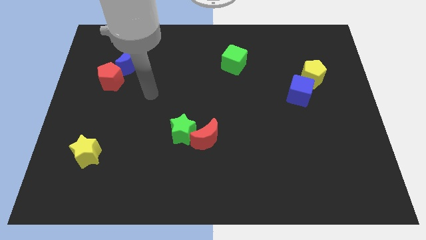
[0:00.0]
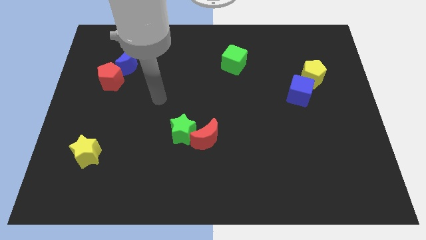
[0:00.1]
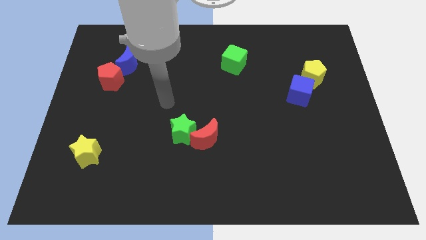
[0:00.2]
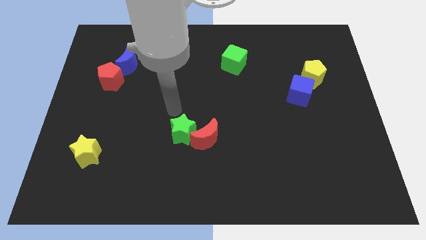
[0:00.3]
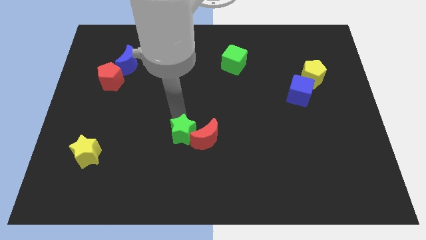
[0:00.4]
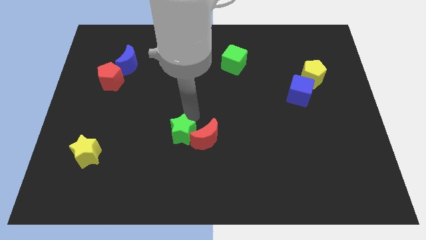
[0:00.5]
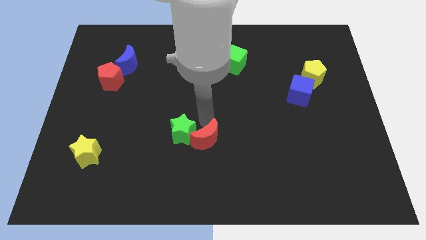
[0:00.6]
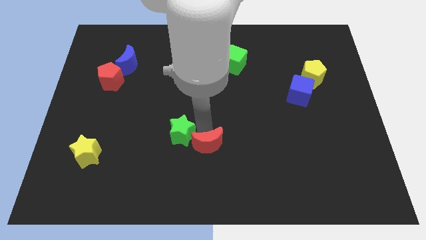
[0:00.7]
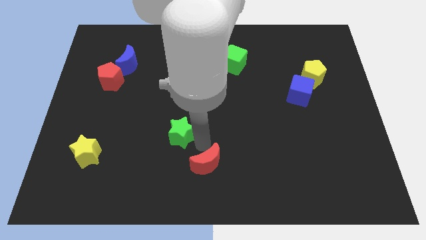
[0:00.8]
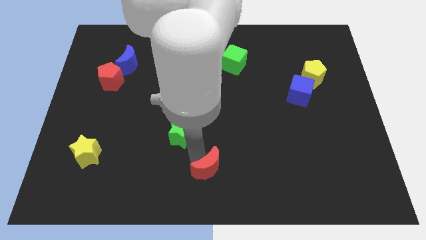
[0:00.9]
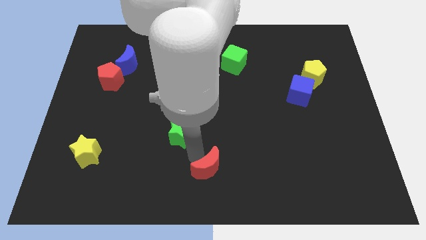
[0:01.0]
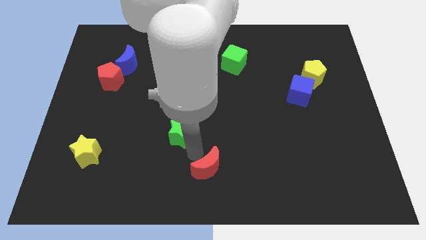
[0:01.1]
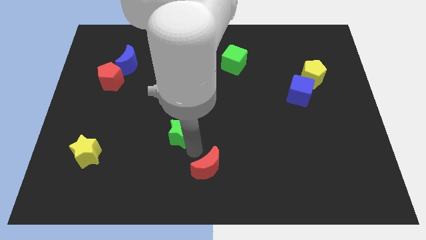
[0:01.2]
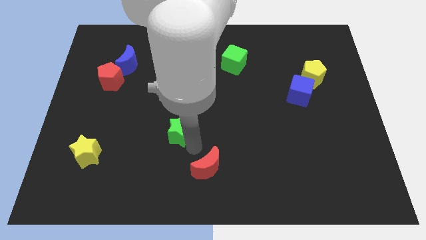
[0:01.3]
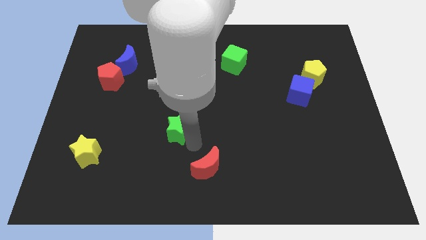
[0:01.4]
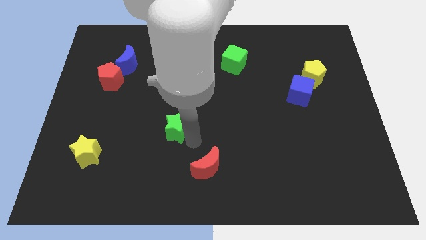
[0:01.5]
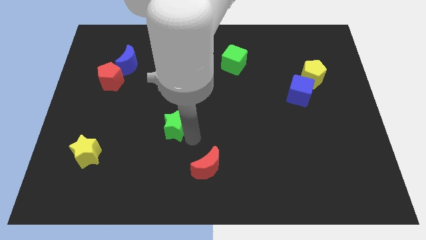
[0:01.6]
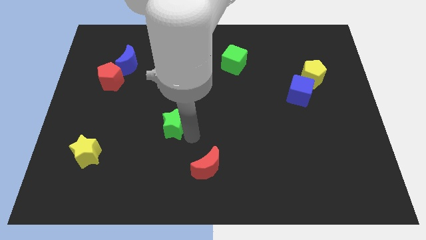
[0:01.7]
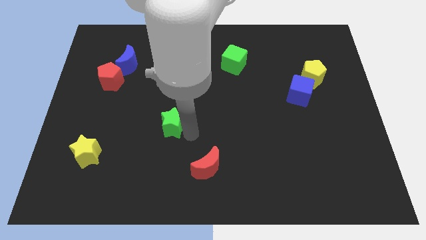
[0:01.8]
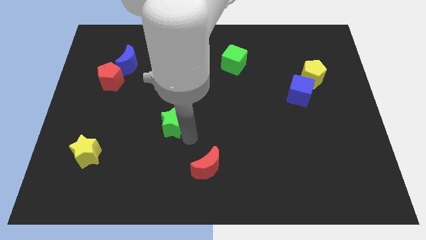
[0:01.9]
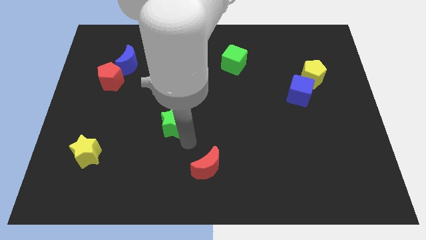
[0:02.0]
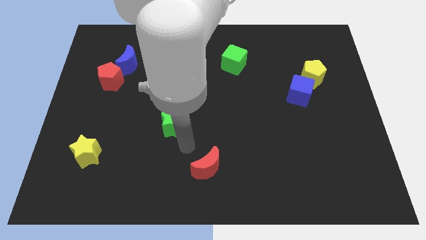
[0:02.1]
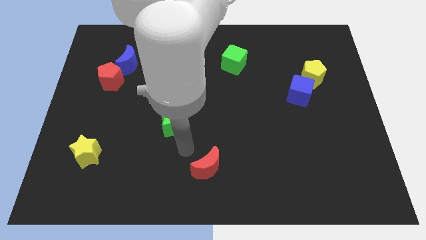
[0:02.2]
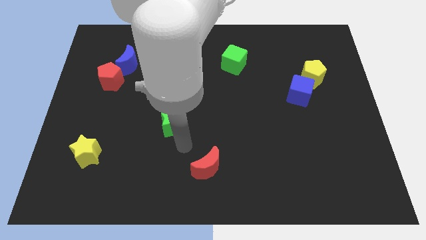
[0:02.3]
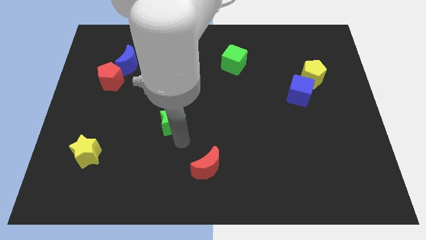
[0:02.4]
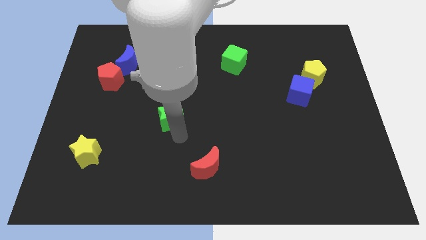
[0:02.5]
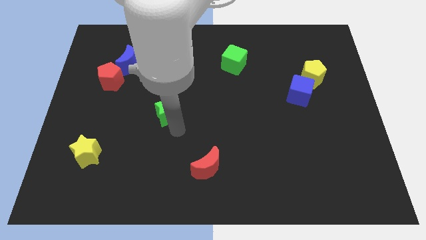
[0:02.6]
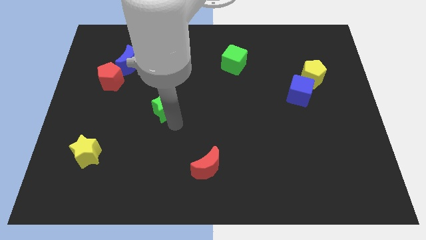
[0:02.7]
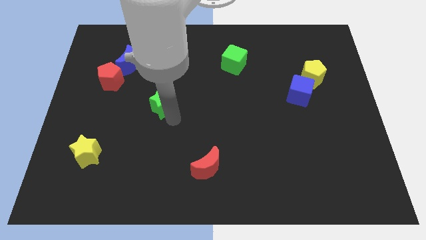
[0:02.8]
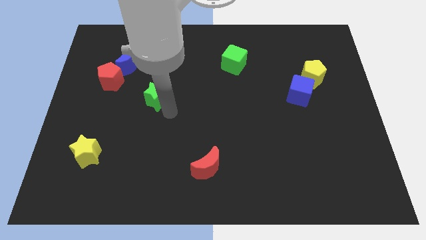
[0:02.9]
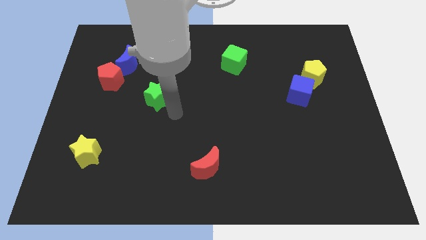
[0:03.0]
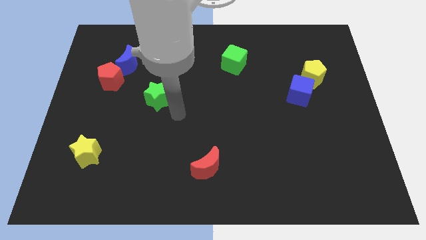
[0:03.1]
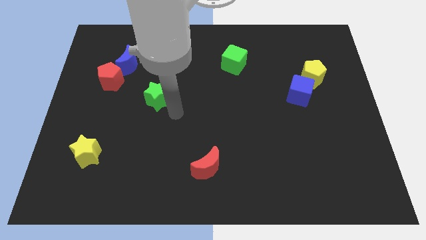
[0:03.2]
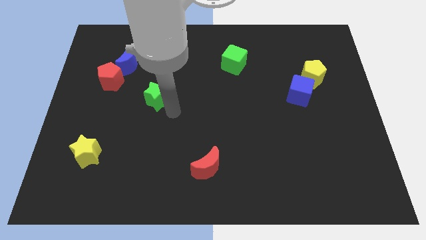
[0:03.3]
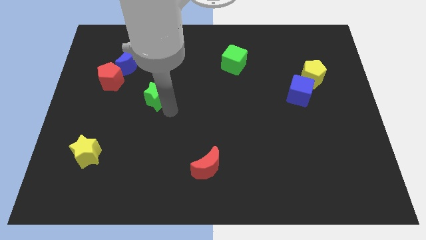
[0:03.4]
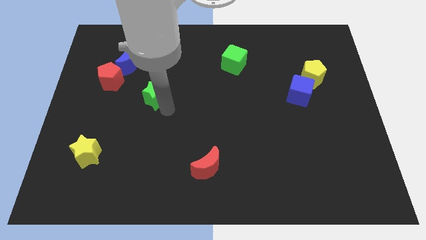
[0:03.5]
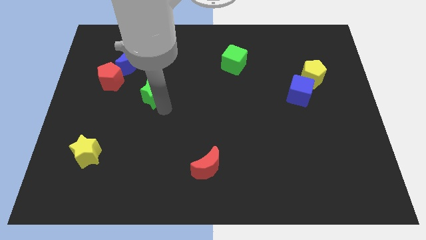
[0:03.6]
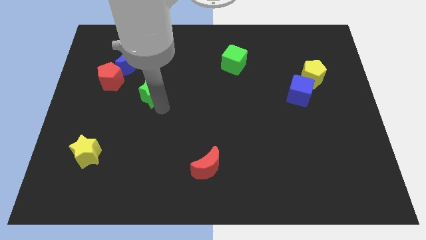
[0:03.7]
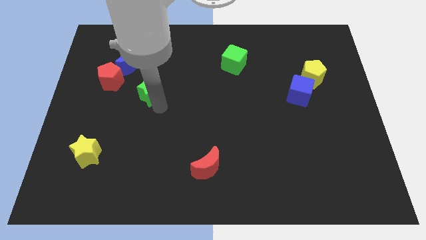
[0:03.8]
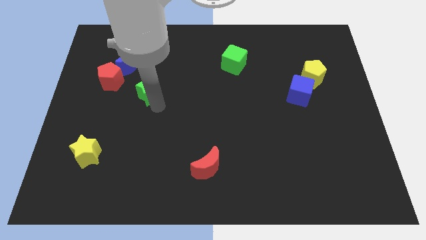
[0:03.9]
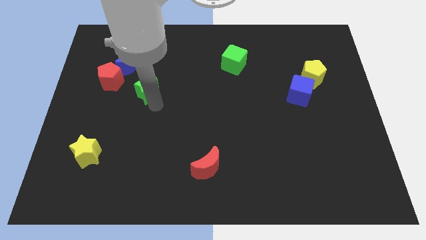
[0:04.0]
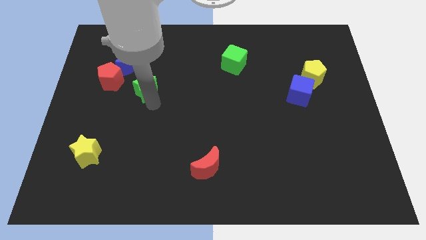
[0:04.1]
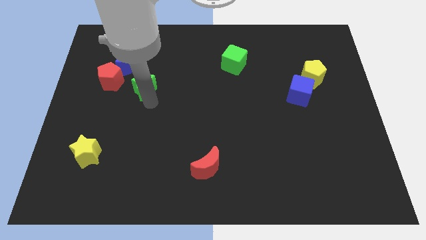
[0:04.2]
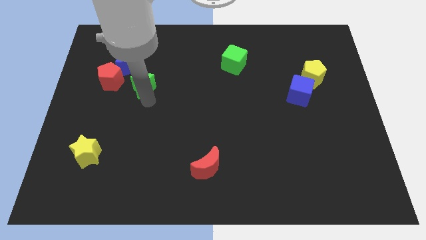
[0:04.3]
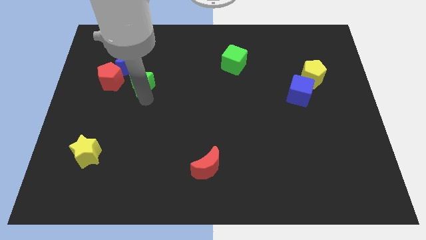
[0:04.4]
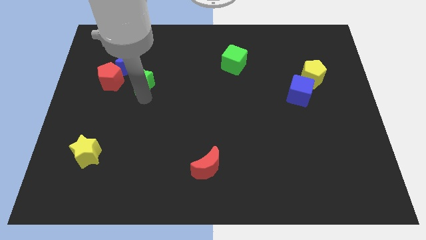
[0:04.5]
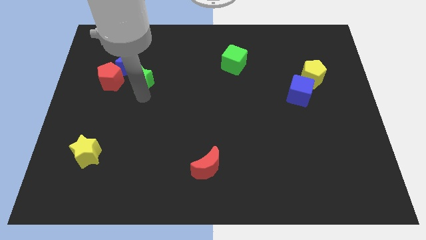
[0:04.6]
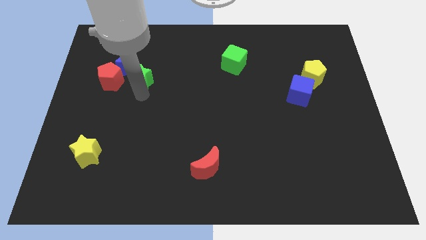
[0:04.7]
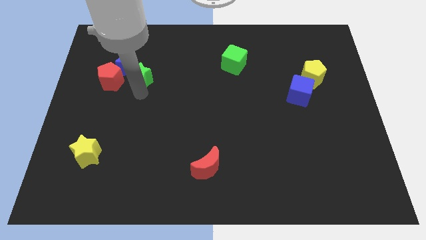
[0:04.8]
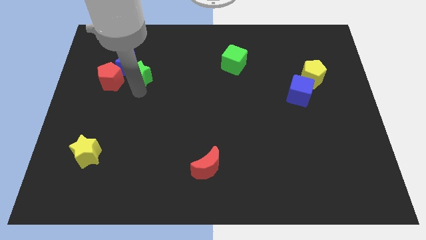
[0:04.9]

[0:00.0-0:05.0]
put the green star close to the blue moon

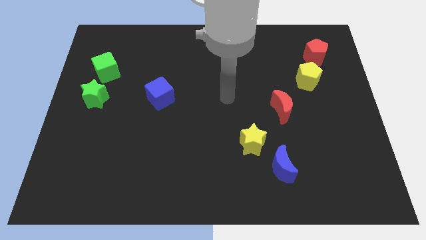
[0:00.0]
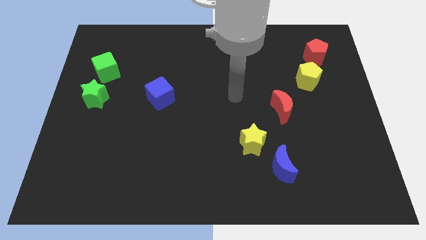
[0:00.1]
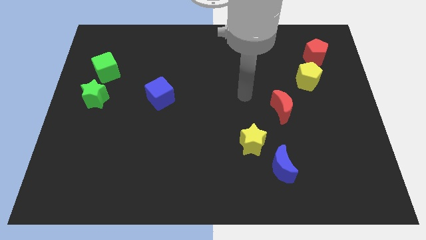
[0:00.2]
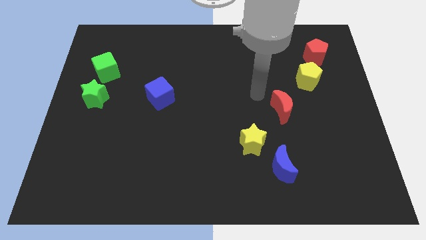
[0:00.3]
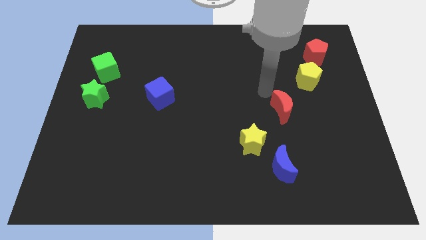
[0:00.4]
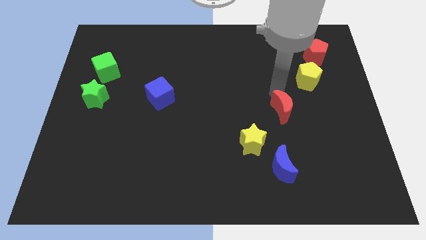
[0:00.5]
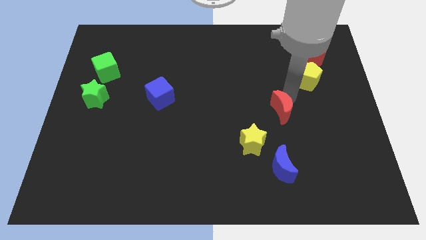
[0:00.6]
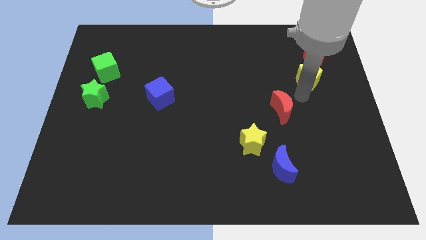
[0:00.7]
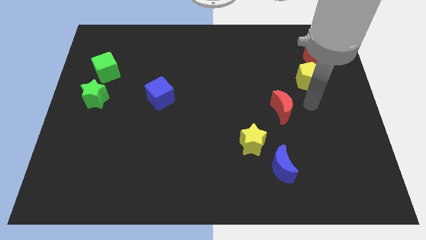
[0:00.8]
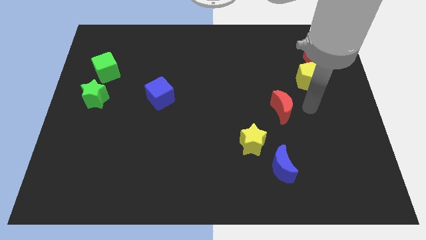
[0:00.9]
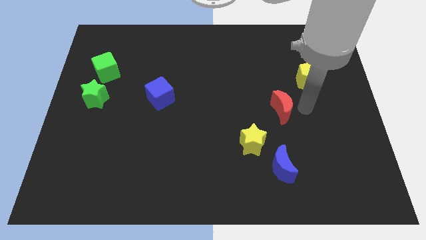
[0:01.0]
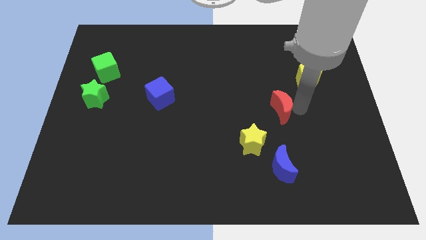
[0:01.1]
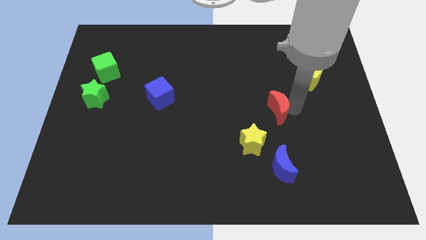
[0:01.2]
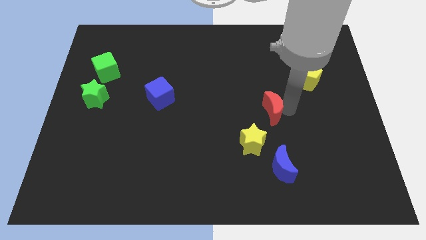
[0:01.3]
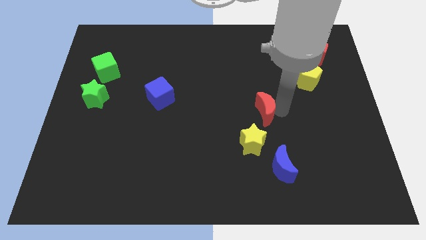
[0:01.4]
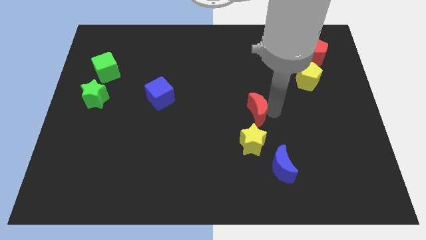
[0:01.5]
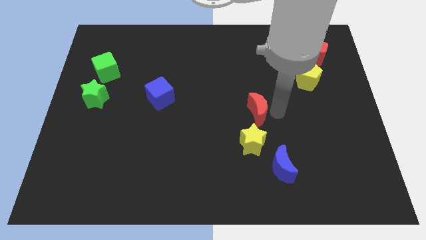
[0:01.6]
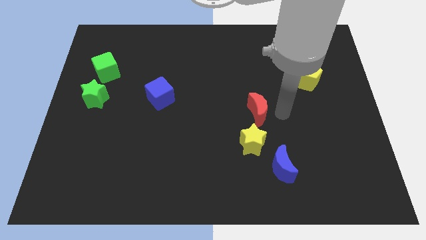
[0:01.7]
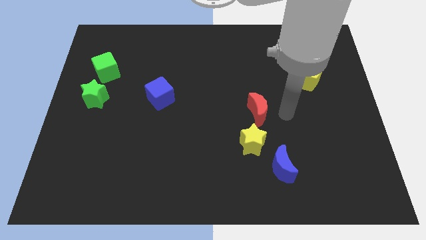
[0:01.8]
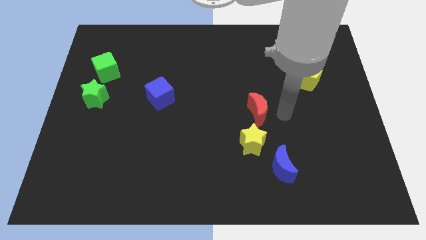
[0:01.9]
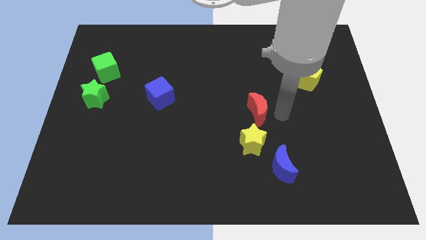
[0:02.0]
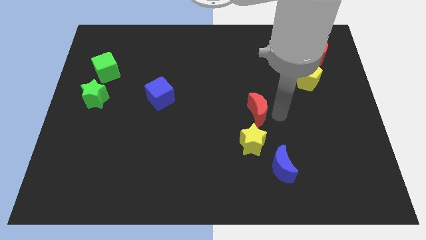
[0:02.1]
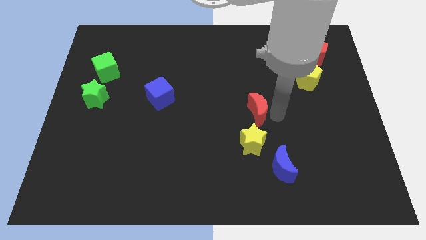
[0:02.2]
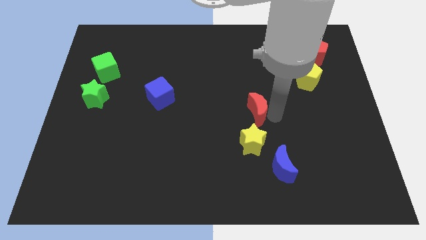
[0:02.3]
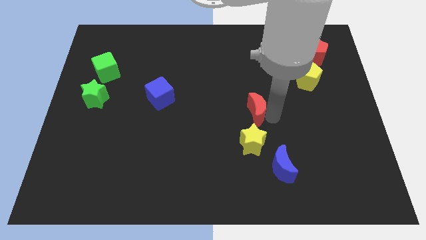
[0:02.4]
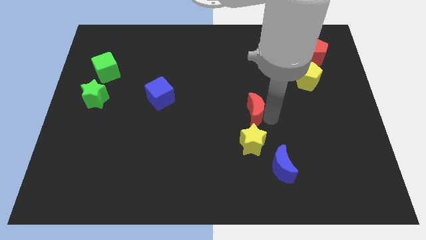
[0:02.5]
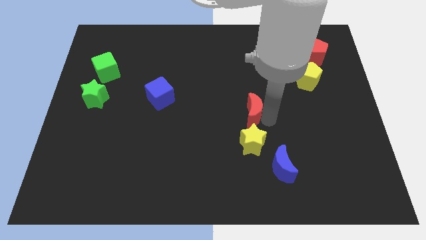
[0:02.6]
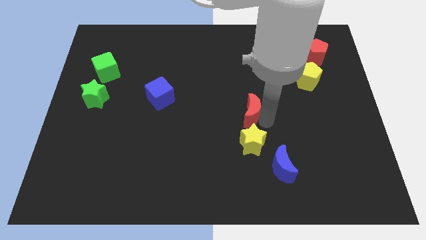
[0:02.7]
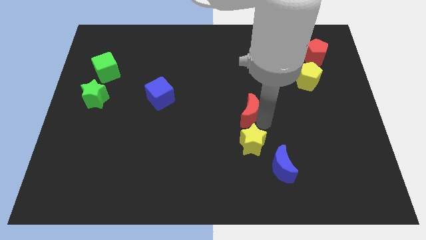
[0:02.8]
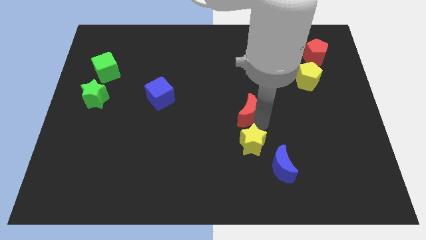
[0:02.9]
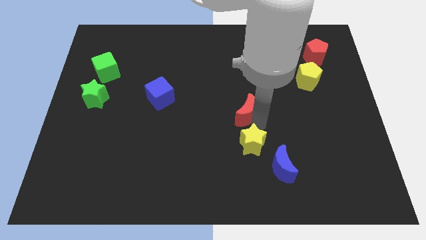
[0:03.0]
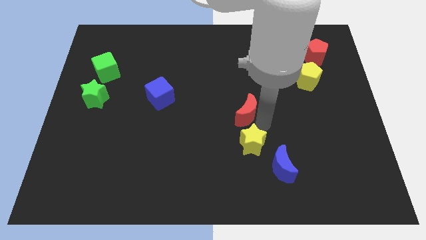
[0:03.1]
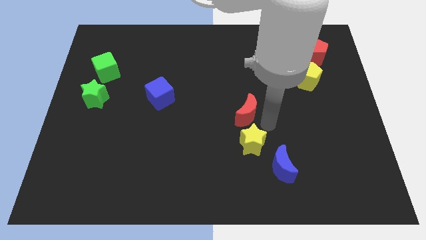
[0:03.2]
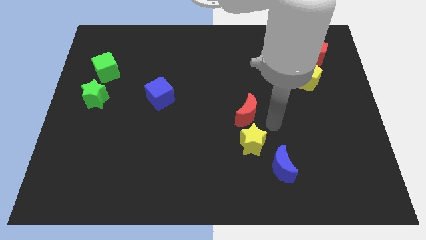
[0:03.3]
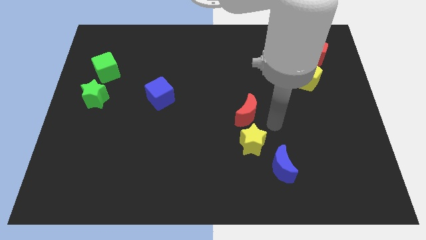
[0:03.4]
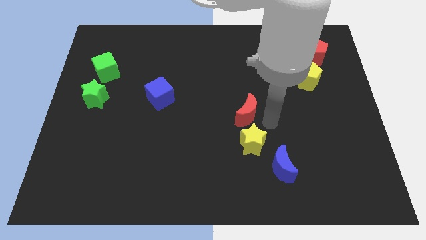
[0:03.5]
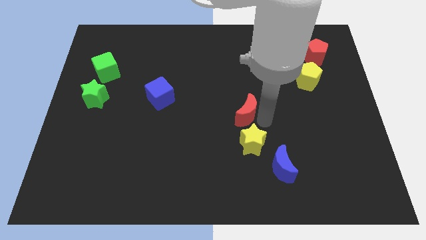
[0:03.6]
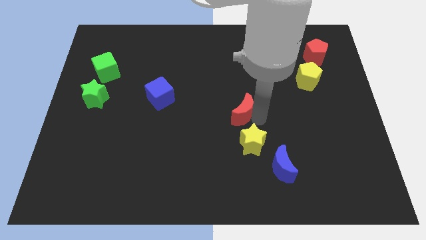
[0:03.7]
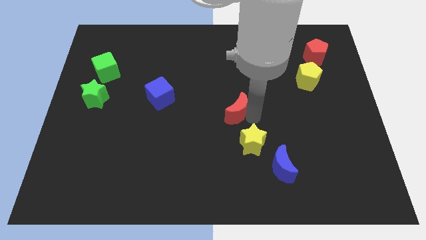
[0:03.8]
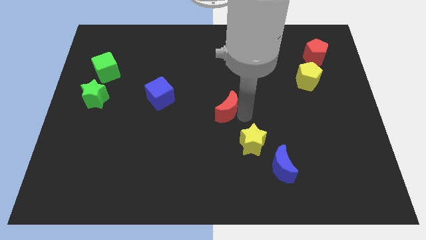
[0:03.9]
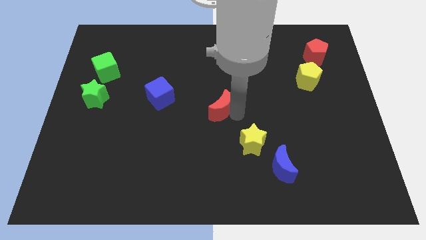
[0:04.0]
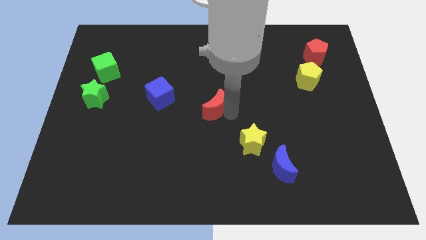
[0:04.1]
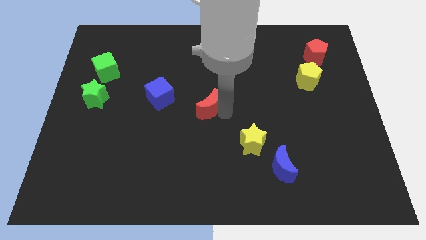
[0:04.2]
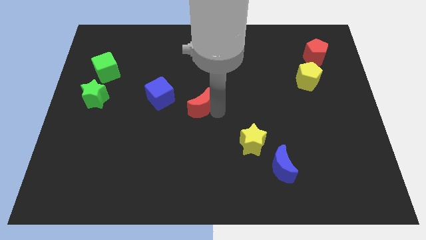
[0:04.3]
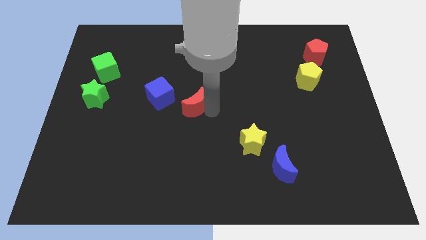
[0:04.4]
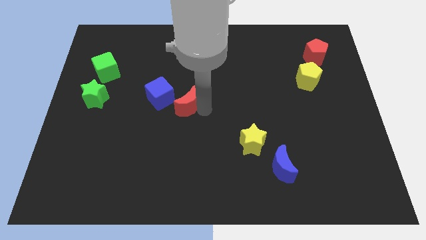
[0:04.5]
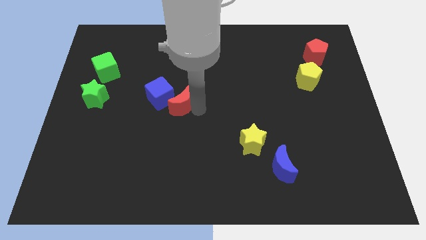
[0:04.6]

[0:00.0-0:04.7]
put the red moon towards the blue cube
